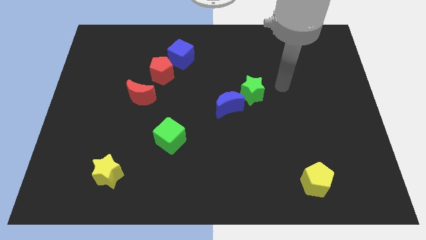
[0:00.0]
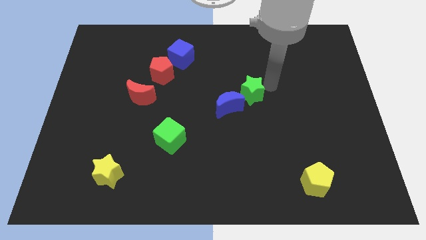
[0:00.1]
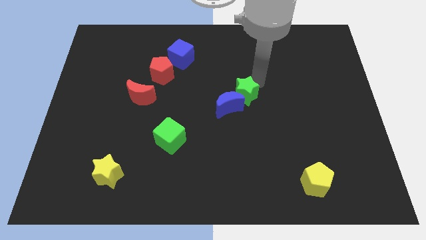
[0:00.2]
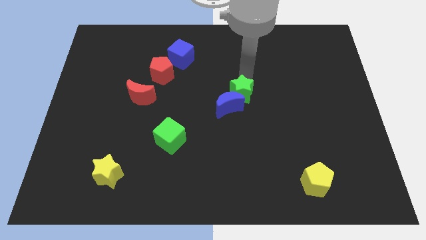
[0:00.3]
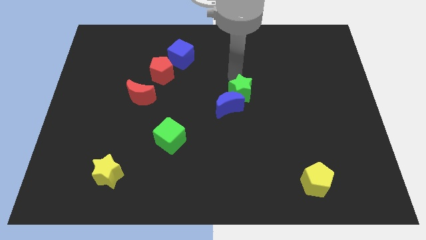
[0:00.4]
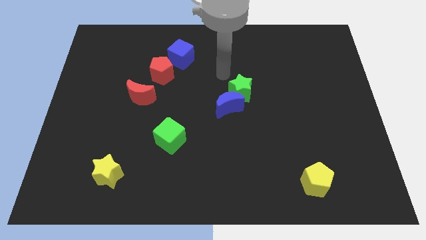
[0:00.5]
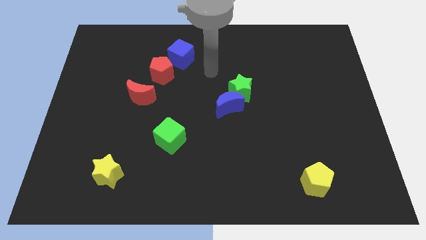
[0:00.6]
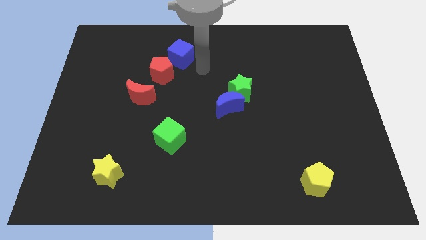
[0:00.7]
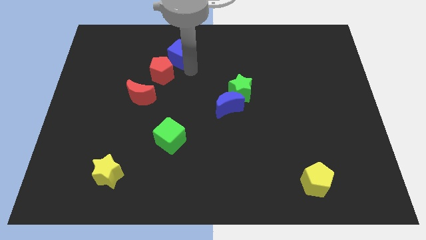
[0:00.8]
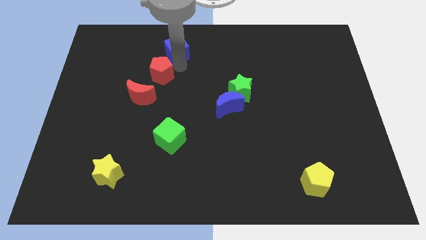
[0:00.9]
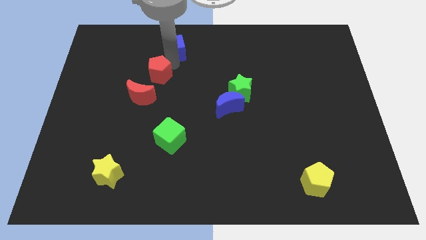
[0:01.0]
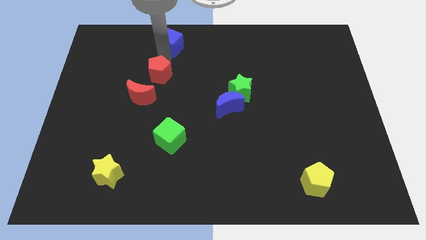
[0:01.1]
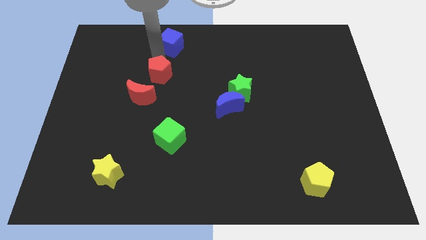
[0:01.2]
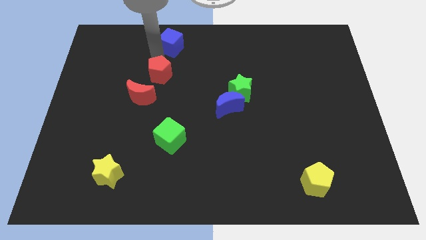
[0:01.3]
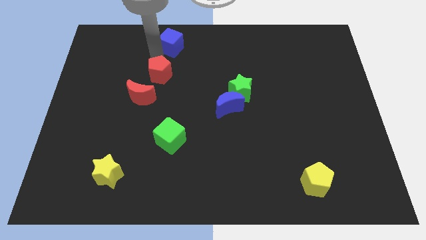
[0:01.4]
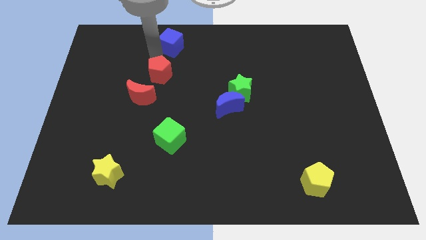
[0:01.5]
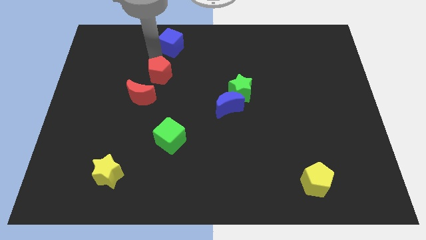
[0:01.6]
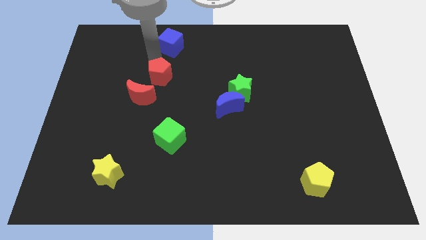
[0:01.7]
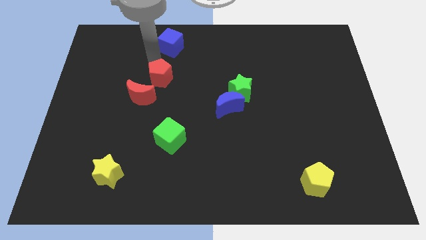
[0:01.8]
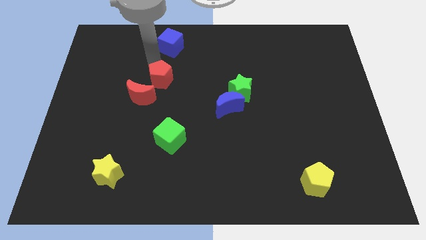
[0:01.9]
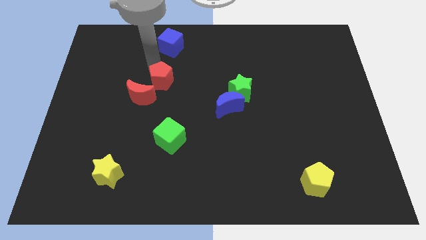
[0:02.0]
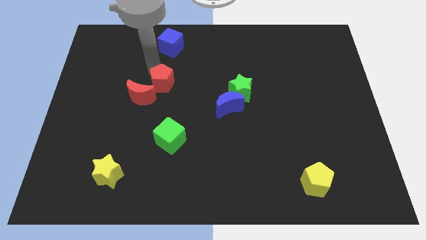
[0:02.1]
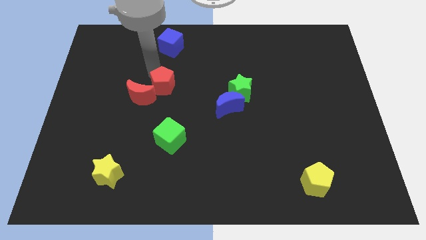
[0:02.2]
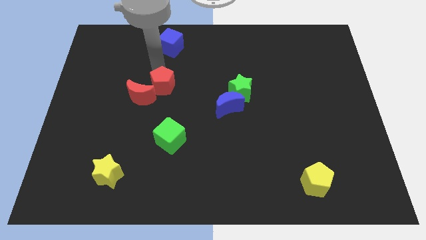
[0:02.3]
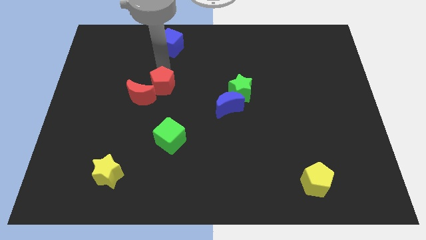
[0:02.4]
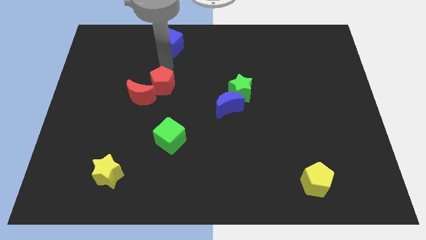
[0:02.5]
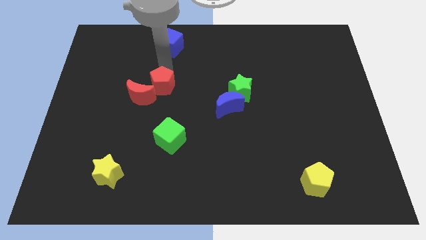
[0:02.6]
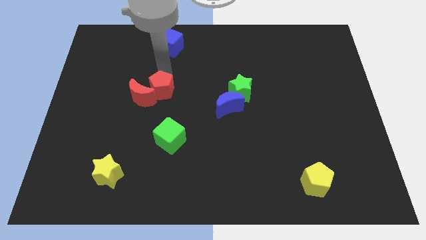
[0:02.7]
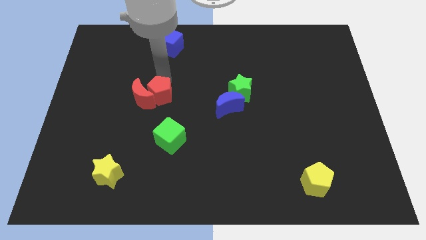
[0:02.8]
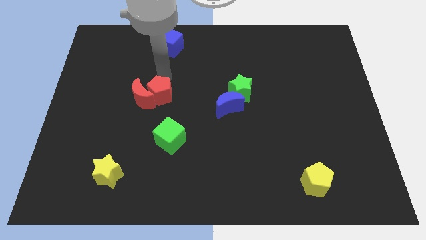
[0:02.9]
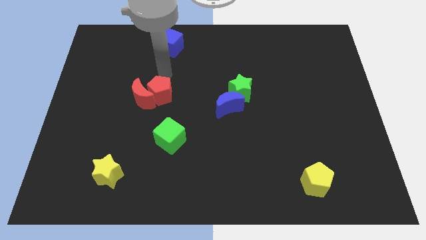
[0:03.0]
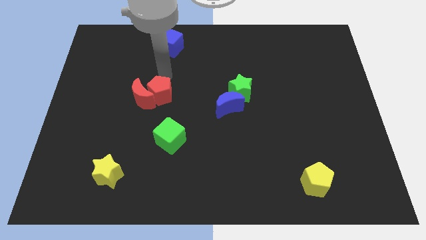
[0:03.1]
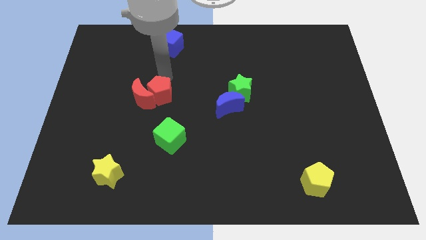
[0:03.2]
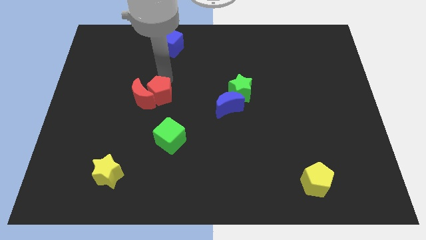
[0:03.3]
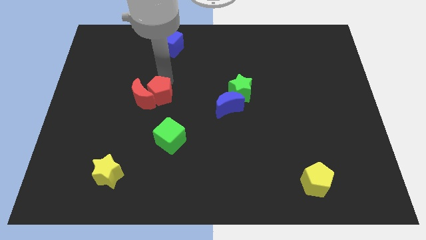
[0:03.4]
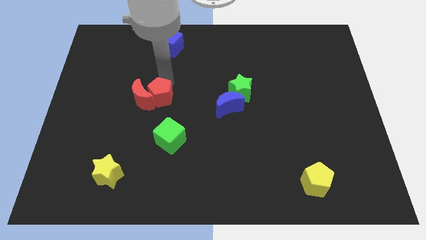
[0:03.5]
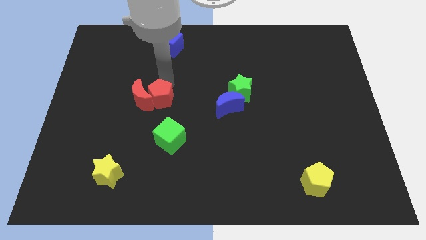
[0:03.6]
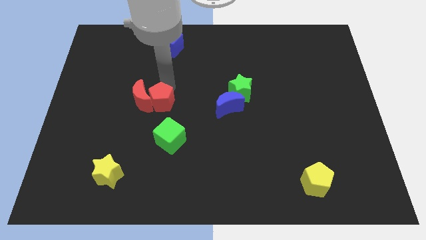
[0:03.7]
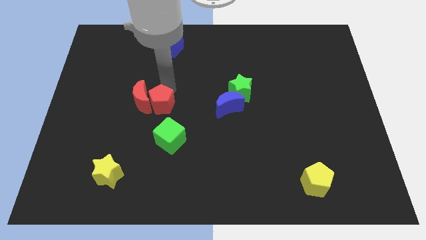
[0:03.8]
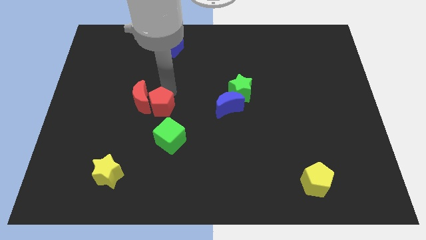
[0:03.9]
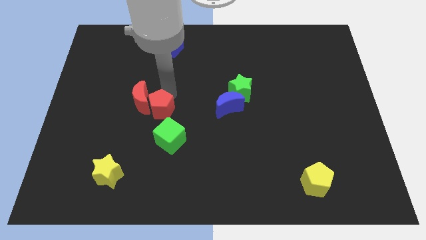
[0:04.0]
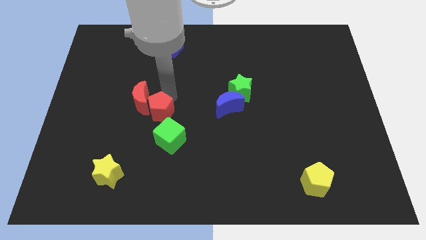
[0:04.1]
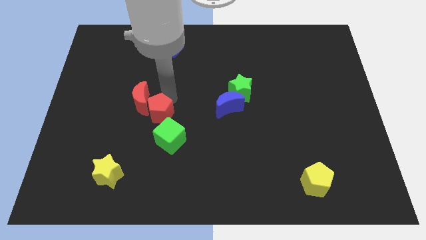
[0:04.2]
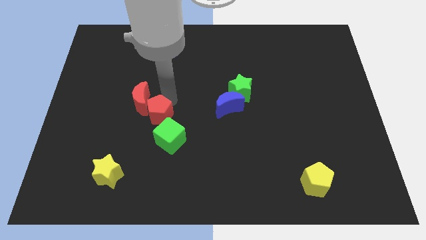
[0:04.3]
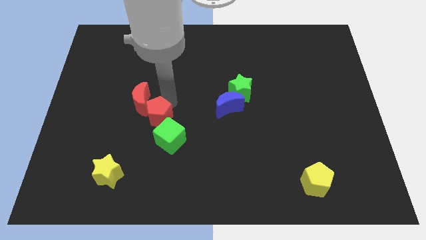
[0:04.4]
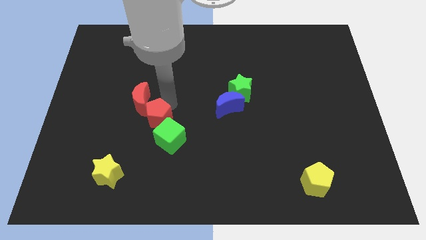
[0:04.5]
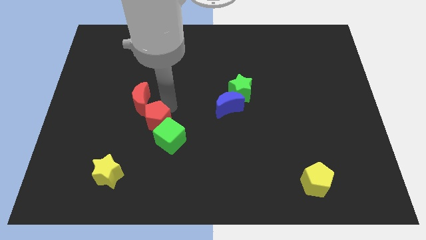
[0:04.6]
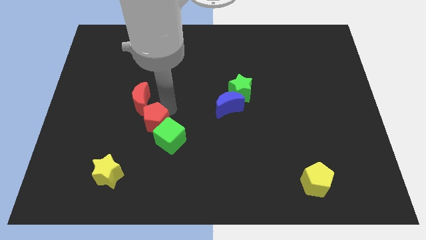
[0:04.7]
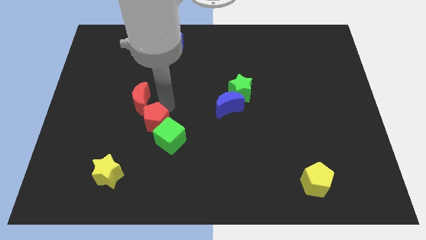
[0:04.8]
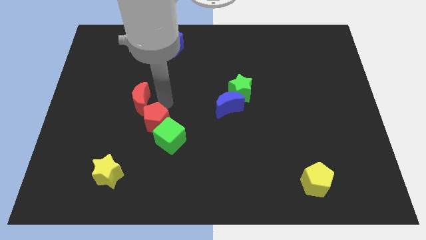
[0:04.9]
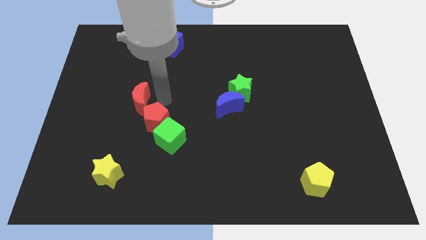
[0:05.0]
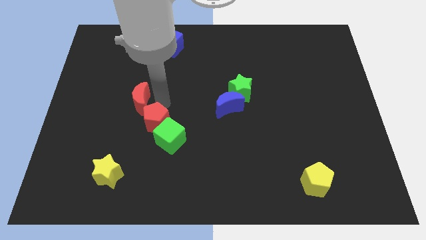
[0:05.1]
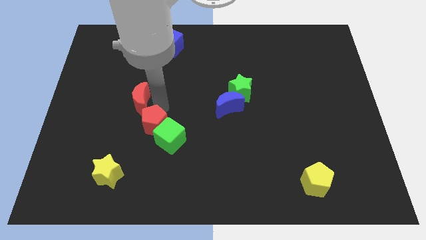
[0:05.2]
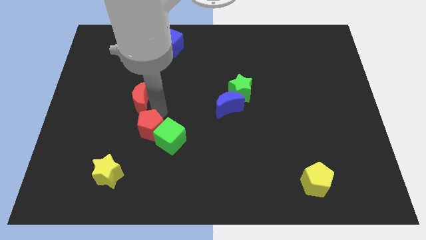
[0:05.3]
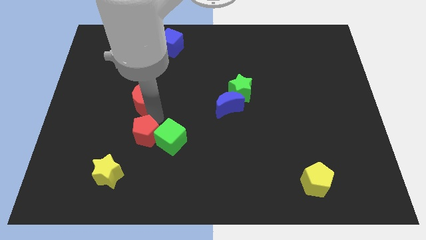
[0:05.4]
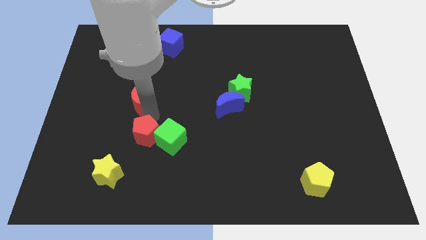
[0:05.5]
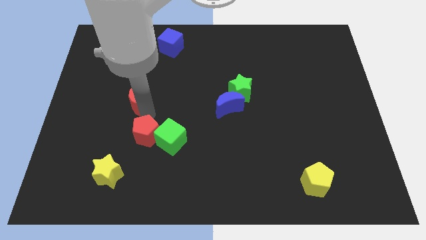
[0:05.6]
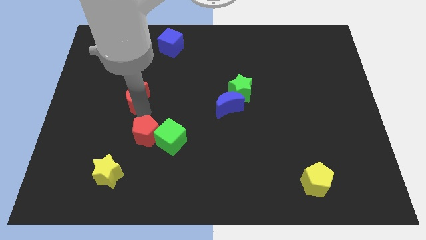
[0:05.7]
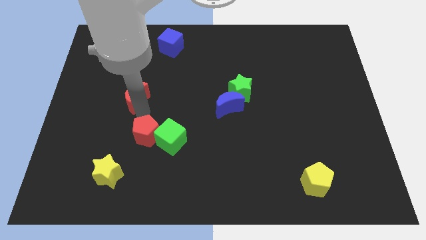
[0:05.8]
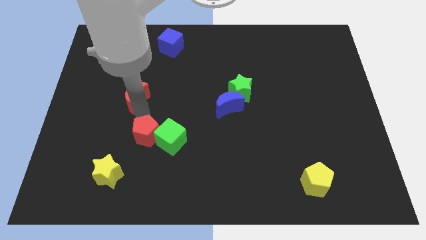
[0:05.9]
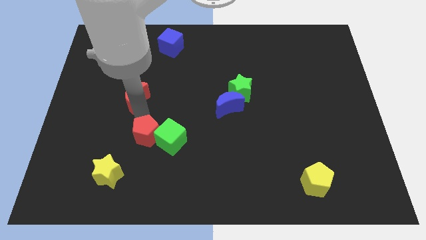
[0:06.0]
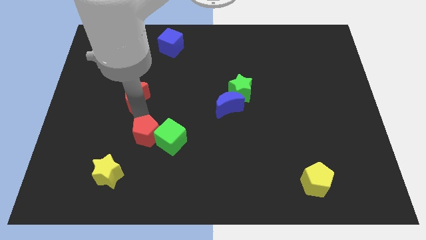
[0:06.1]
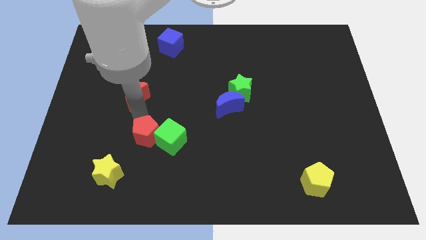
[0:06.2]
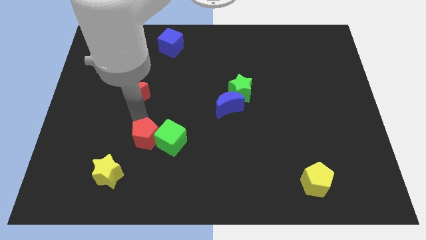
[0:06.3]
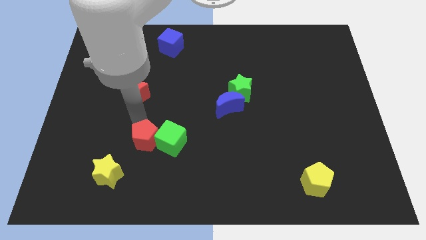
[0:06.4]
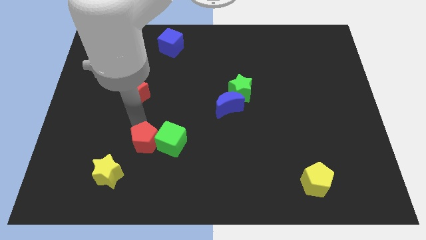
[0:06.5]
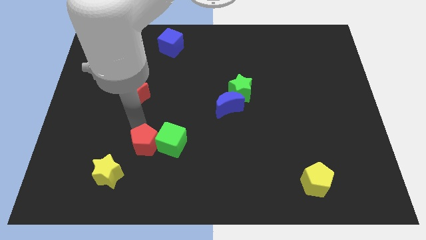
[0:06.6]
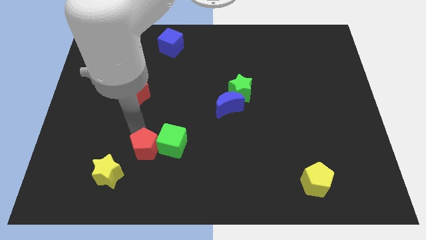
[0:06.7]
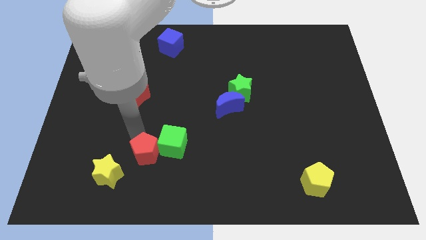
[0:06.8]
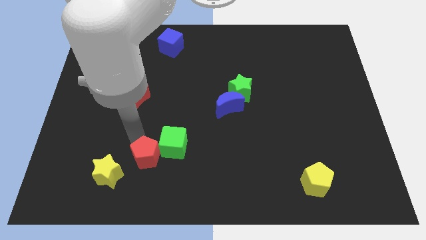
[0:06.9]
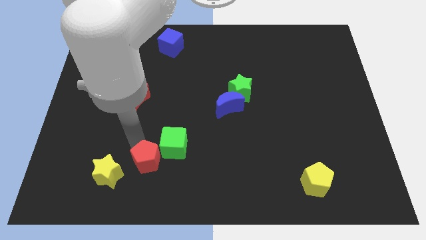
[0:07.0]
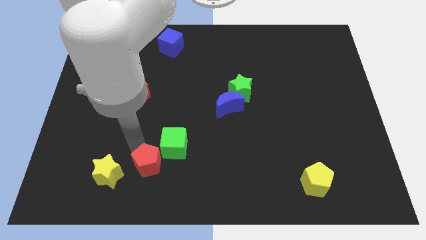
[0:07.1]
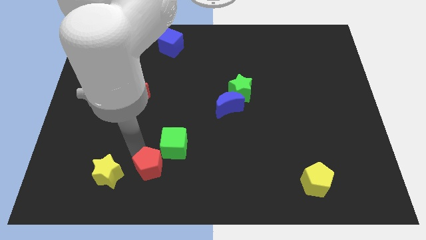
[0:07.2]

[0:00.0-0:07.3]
slide the red pentagon to the bottom side of the green cube

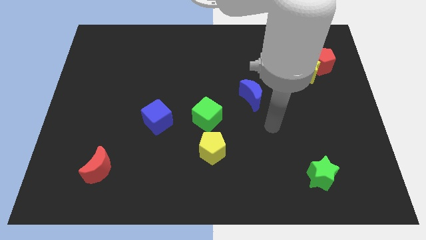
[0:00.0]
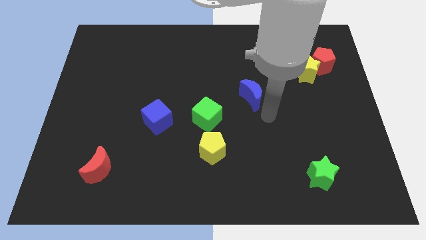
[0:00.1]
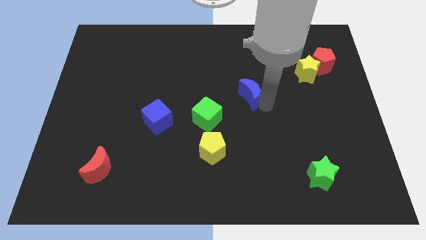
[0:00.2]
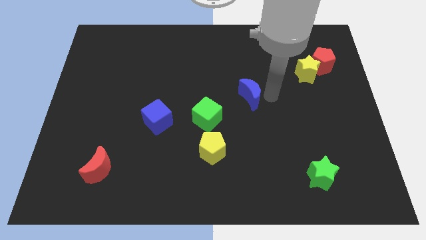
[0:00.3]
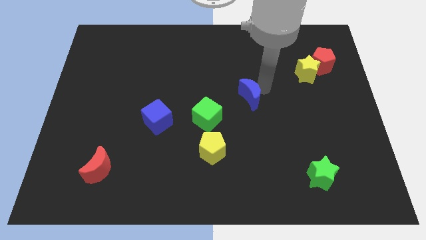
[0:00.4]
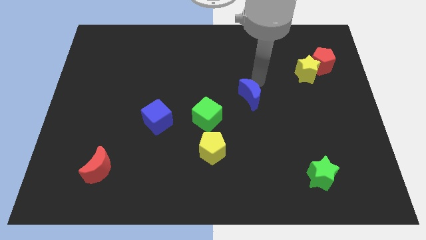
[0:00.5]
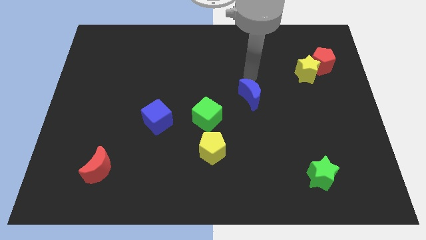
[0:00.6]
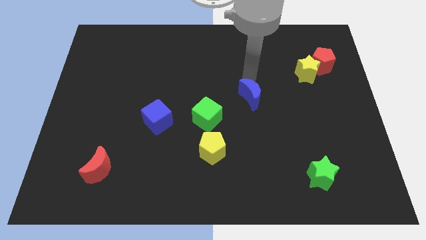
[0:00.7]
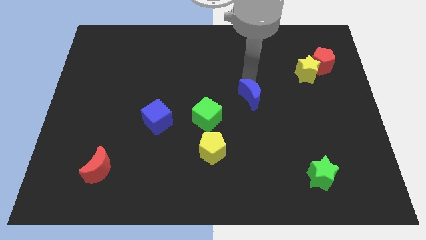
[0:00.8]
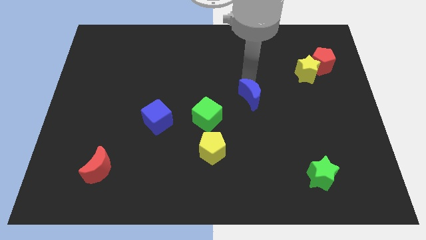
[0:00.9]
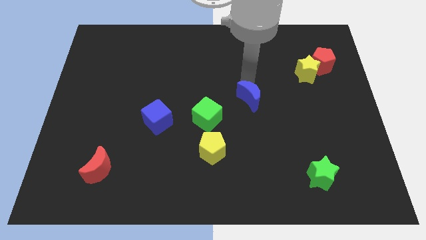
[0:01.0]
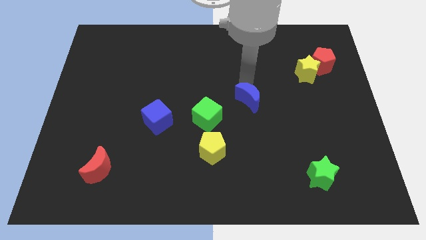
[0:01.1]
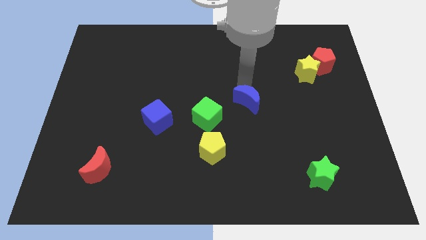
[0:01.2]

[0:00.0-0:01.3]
push the blue moon right of the green cube
